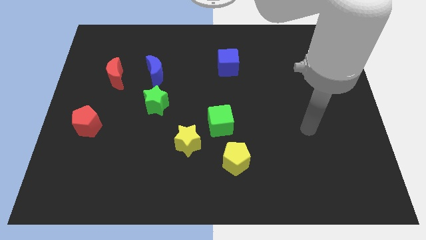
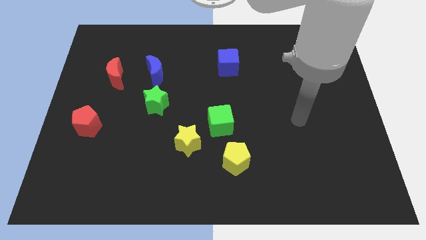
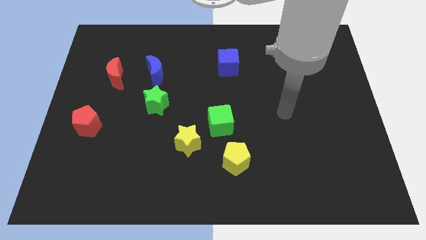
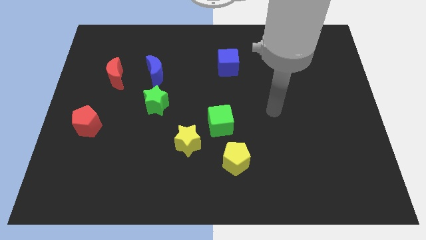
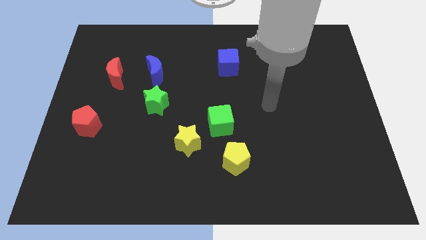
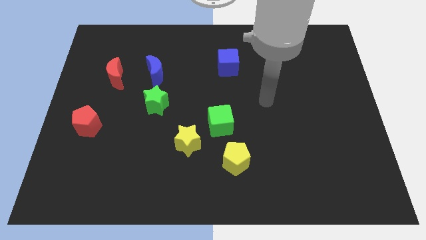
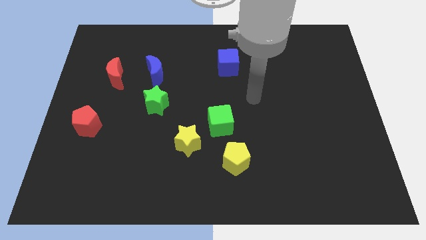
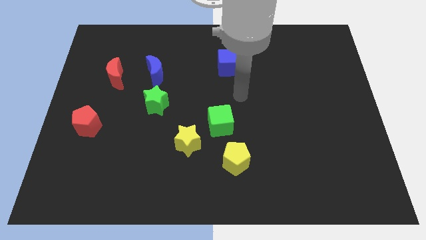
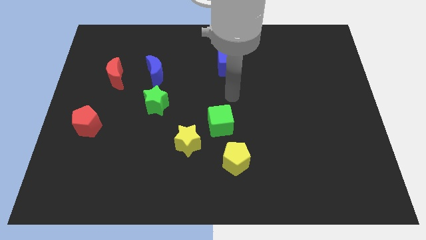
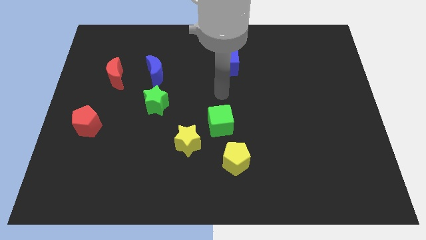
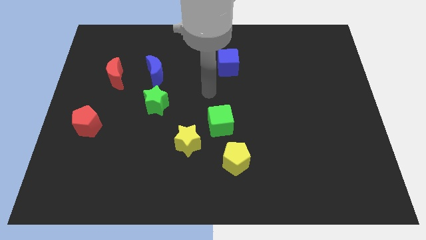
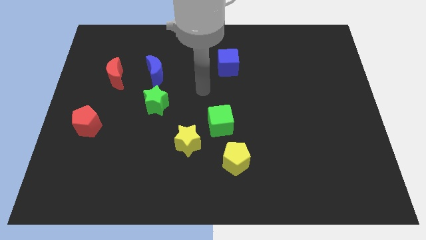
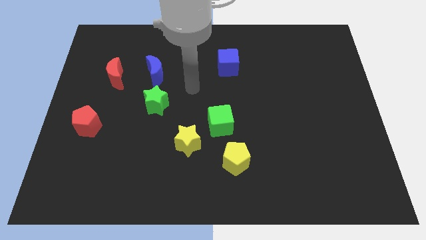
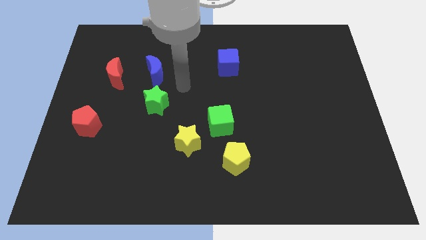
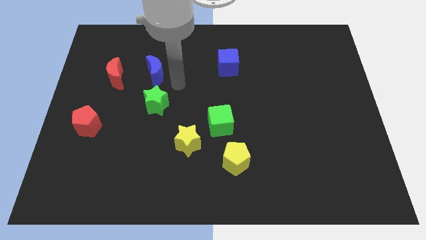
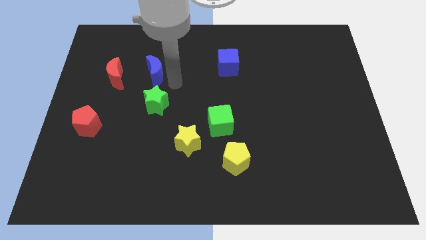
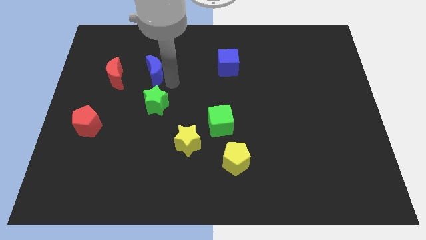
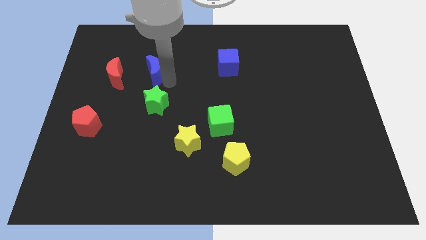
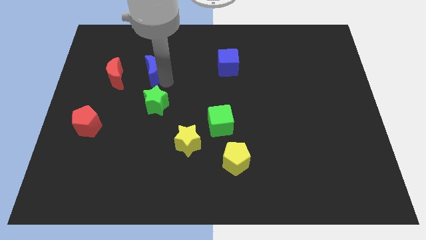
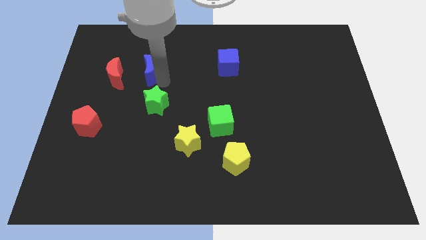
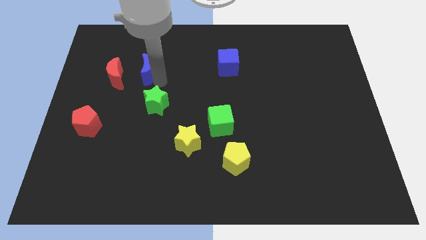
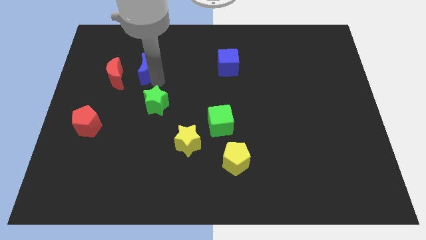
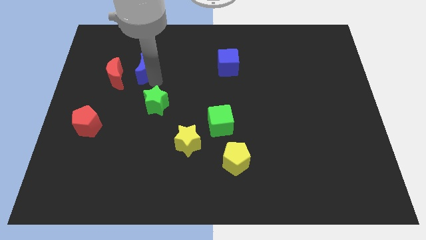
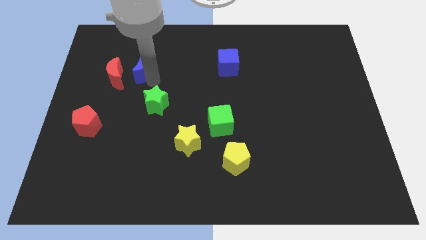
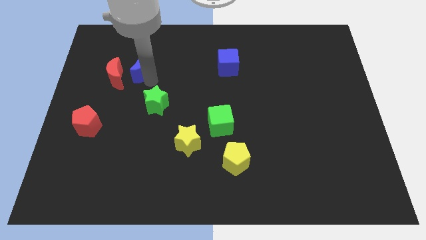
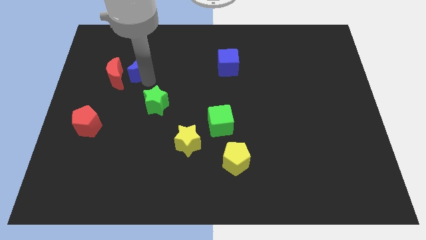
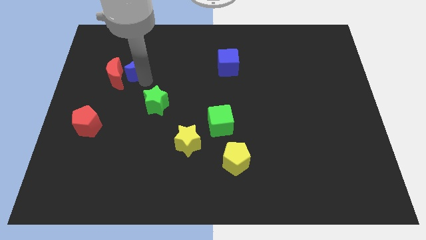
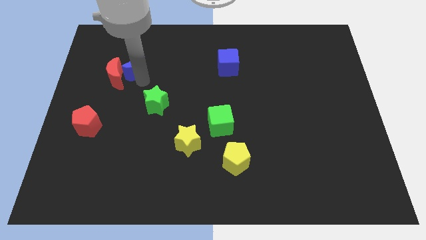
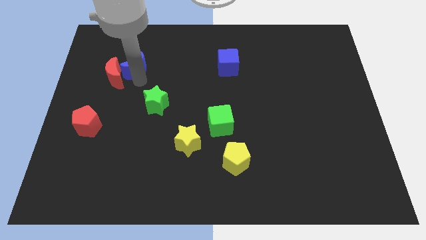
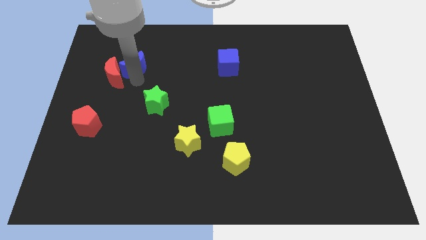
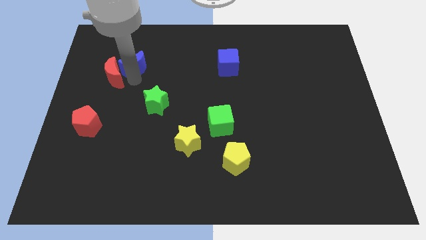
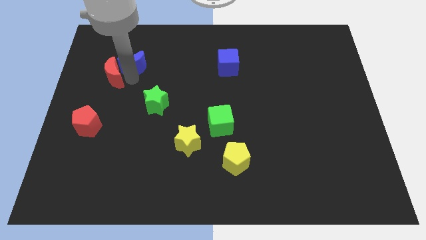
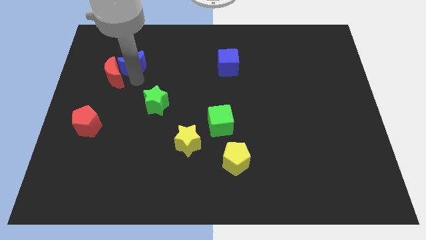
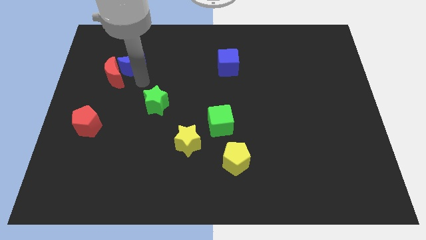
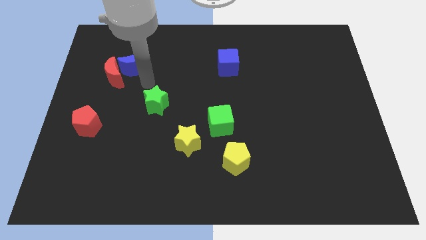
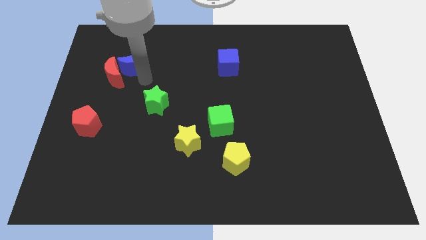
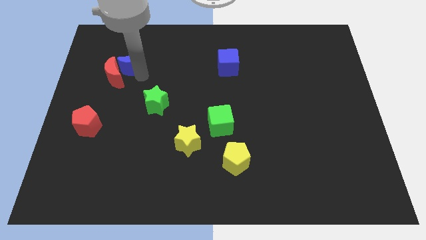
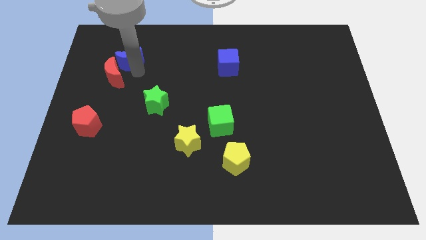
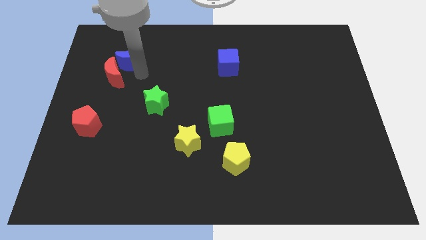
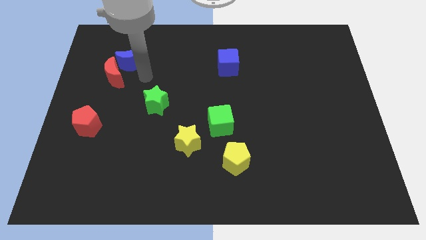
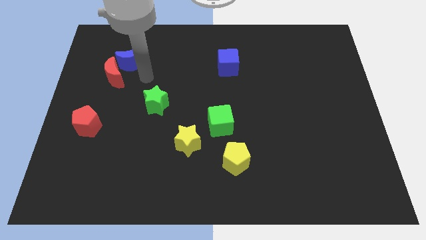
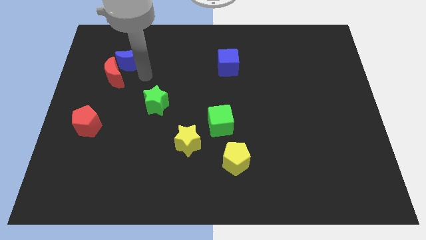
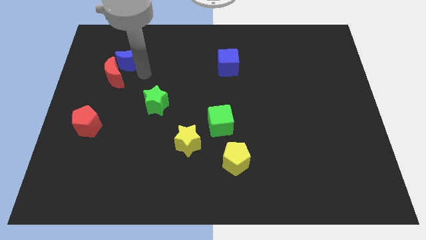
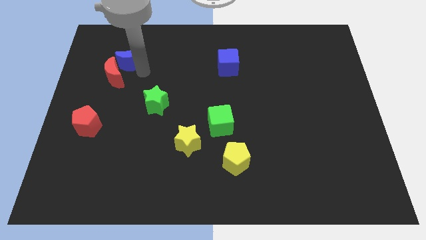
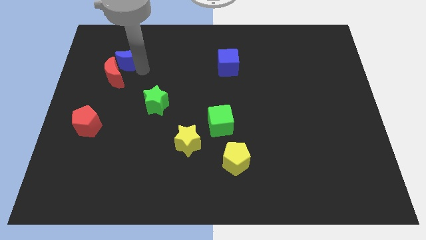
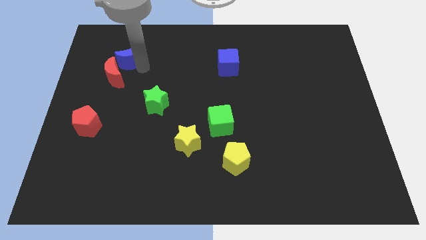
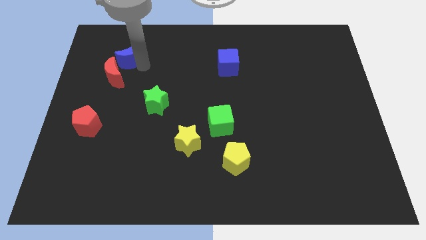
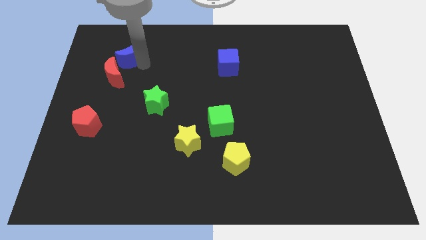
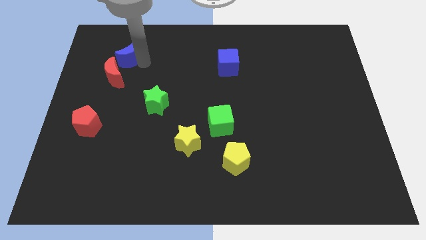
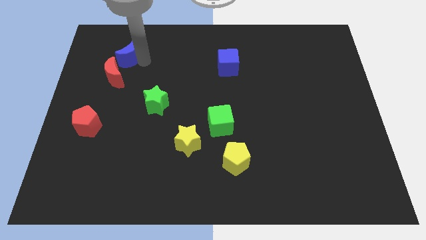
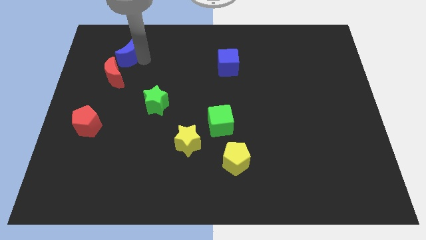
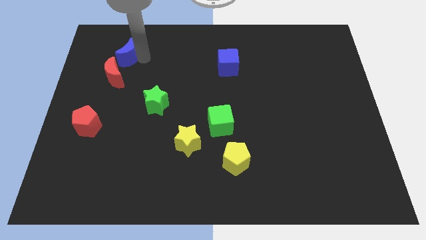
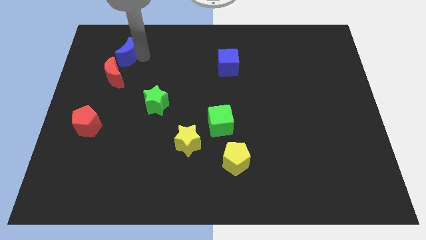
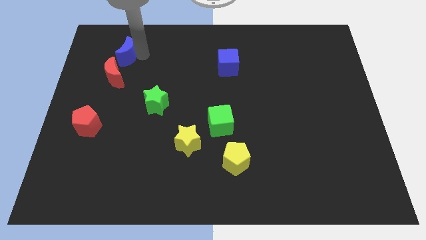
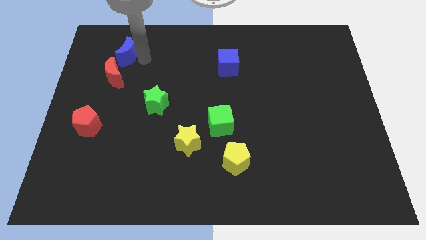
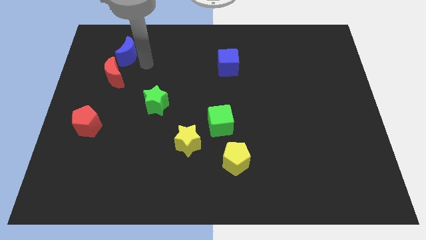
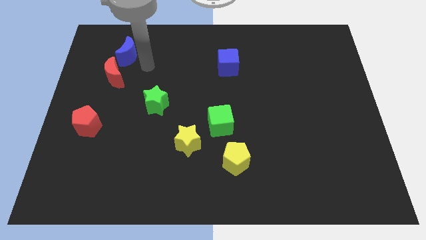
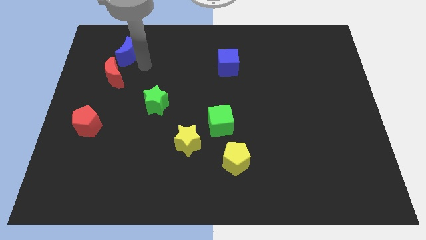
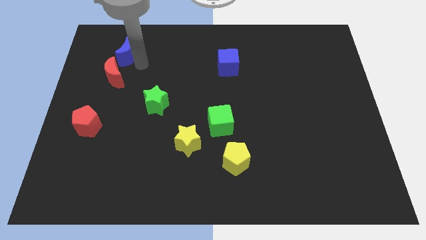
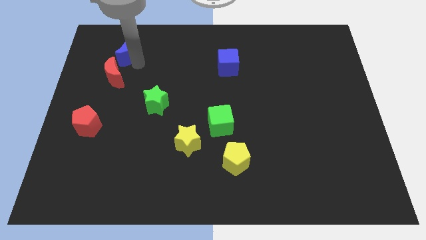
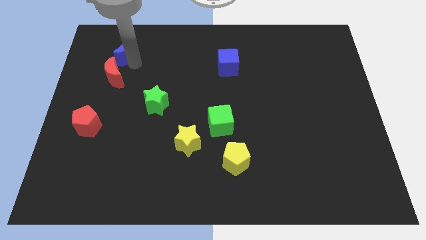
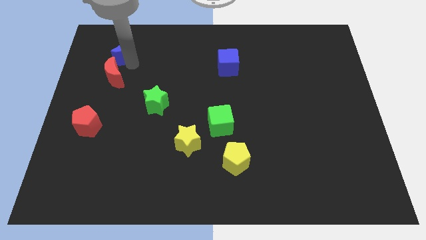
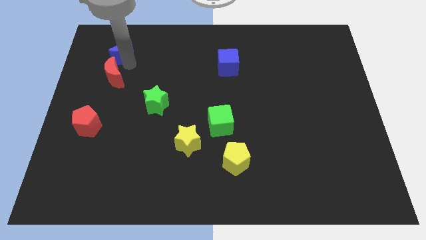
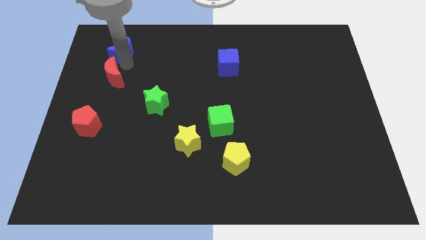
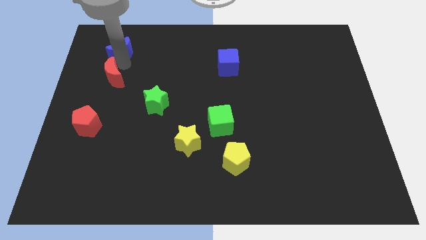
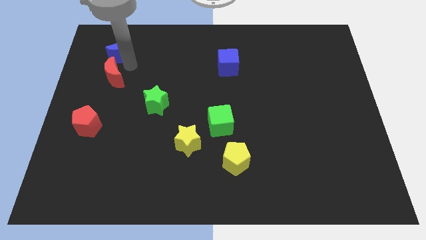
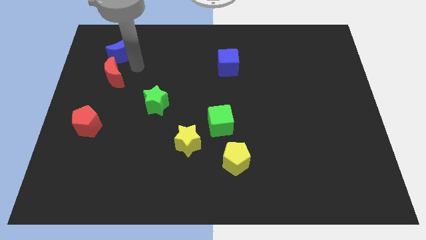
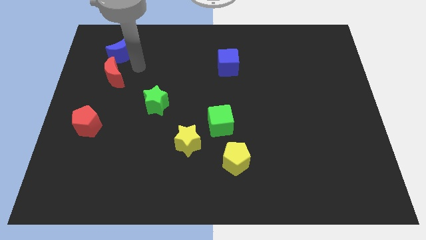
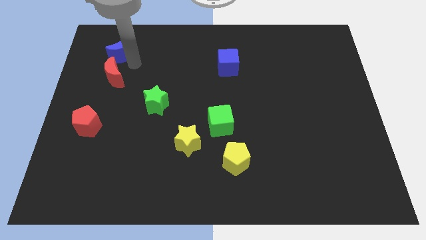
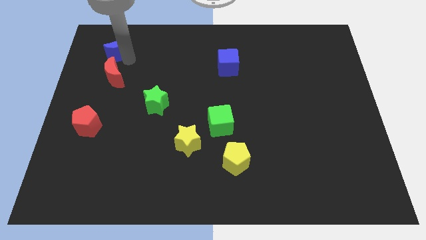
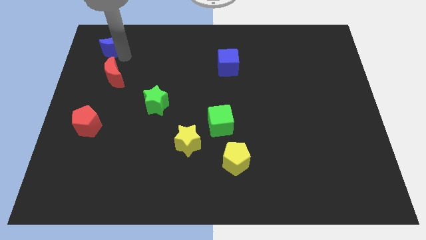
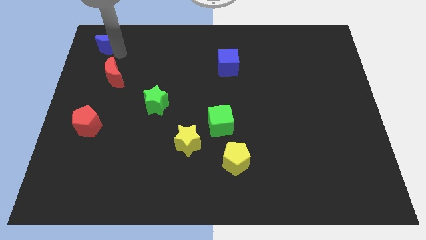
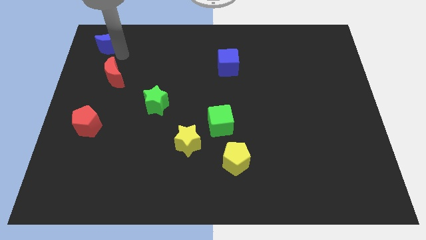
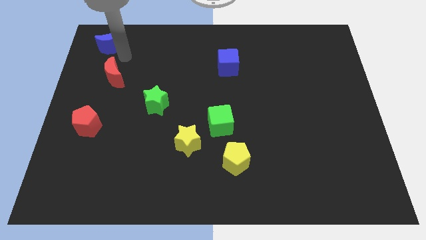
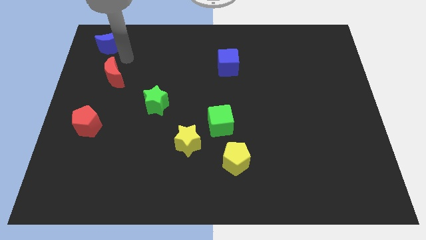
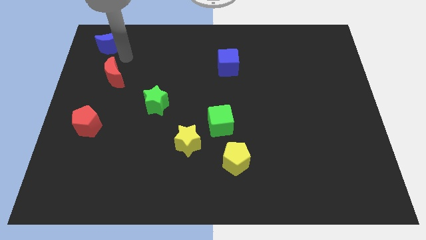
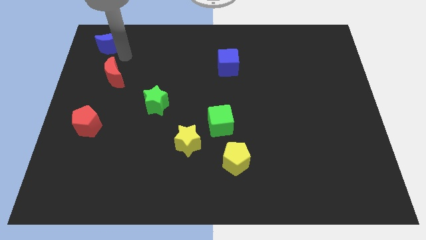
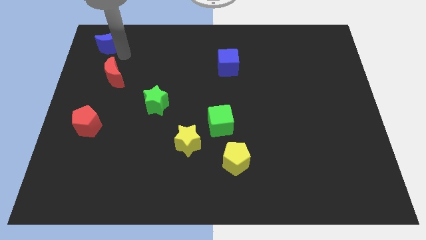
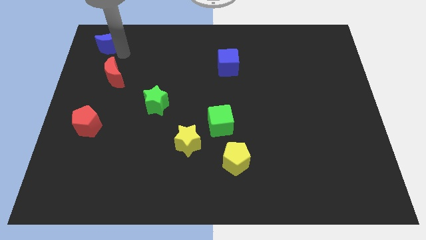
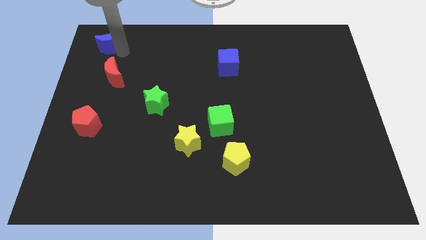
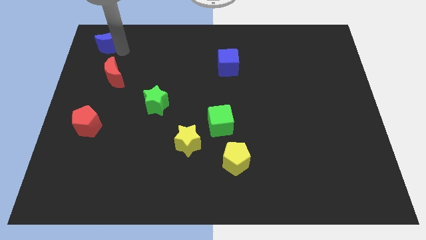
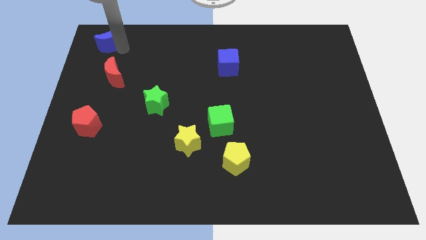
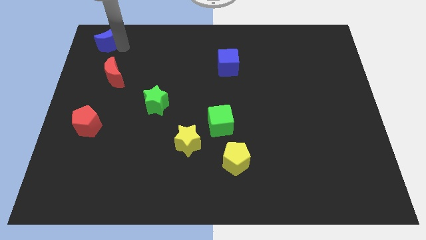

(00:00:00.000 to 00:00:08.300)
push the blue moon to the top left
